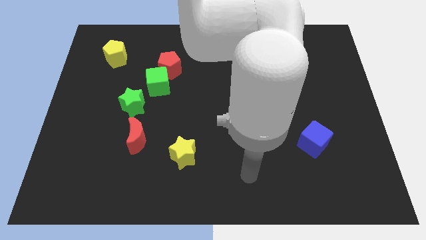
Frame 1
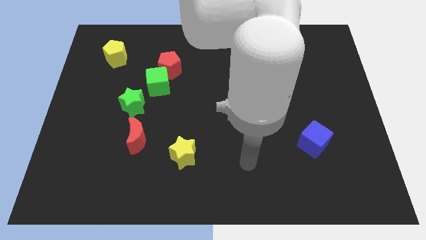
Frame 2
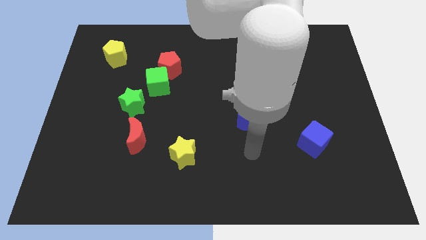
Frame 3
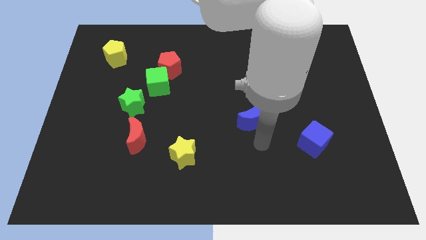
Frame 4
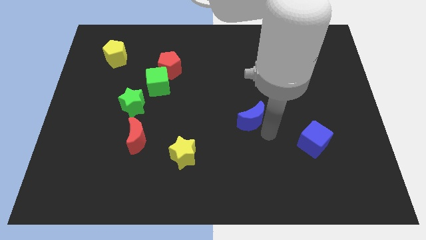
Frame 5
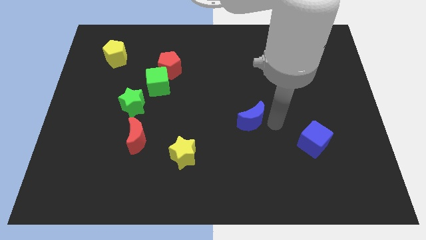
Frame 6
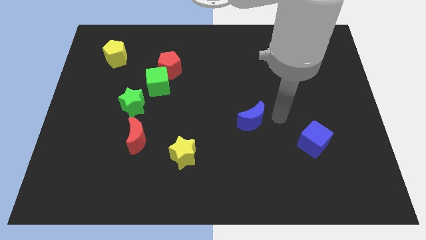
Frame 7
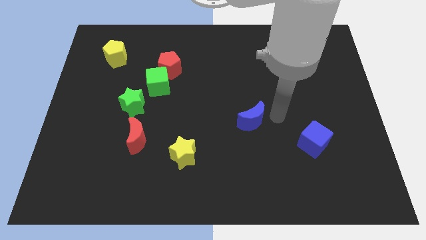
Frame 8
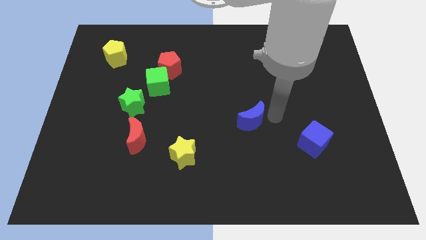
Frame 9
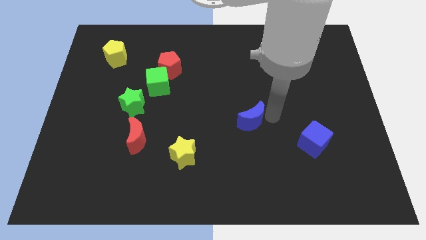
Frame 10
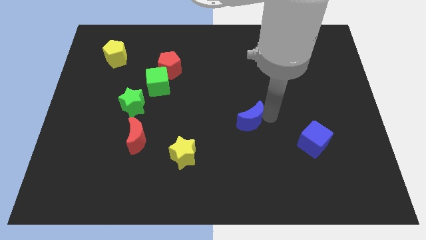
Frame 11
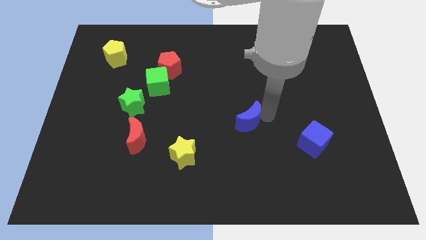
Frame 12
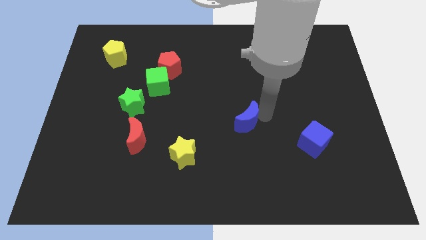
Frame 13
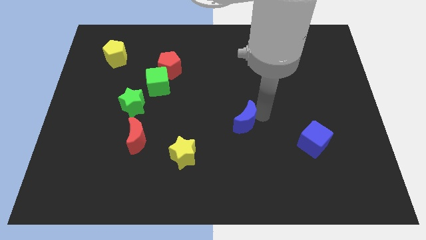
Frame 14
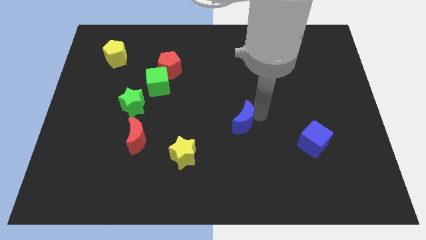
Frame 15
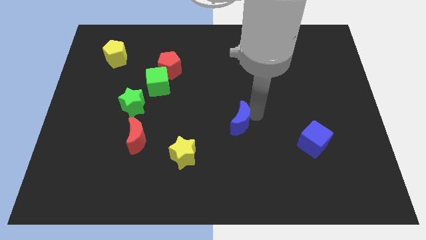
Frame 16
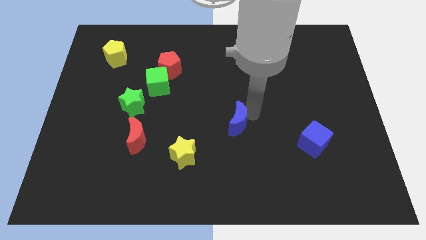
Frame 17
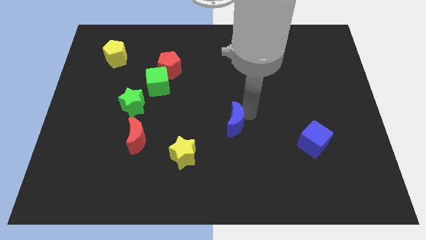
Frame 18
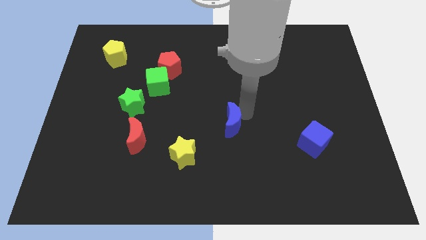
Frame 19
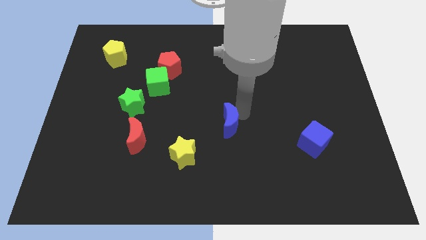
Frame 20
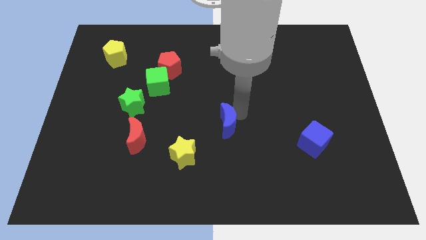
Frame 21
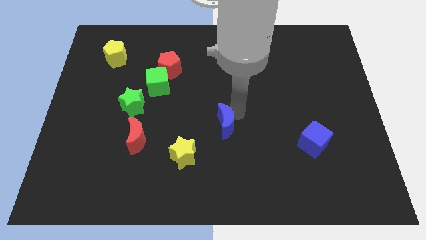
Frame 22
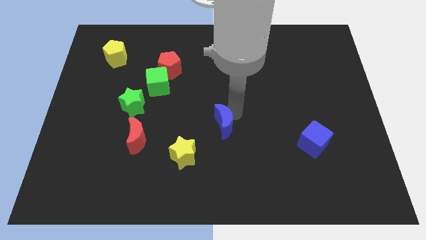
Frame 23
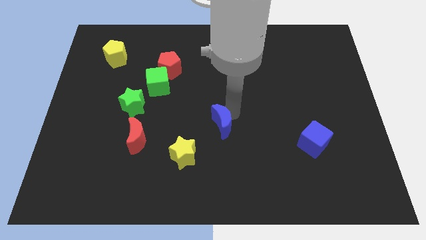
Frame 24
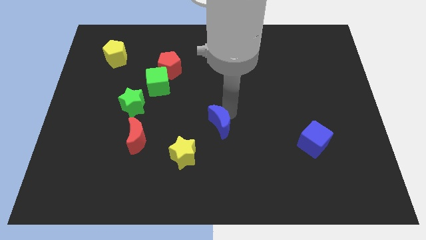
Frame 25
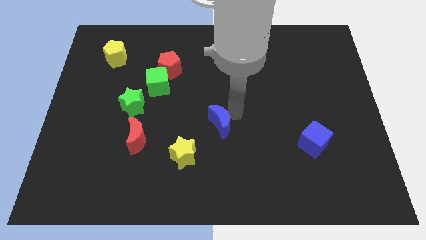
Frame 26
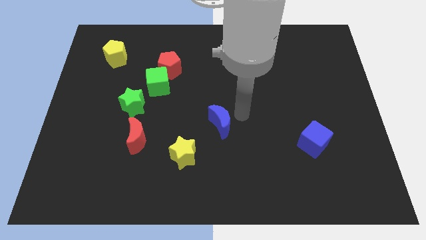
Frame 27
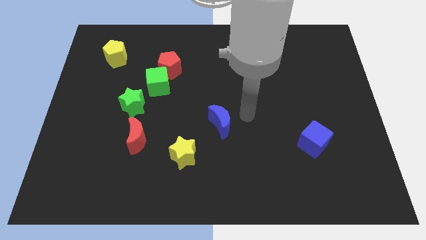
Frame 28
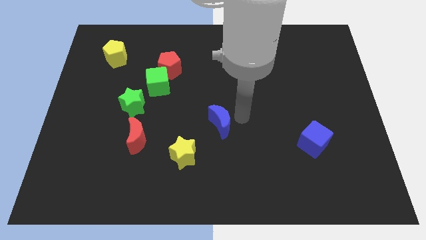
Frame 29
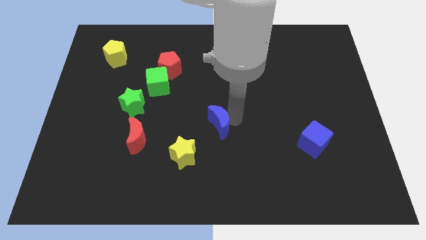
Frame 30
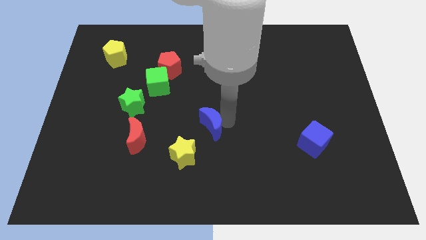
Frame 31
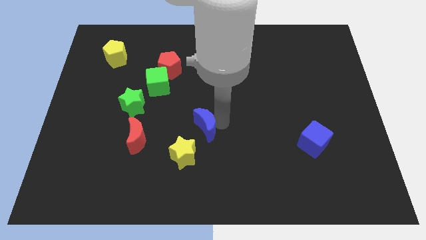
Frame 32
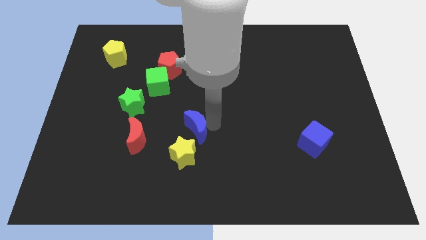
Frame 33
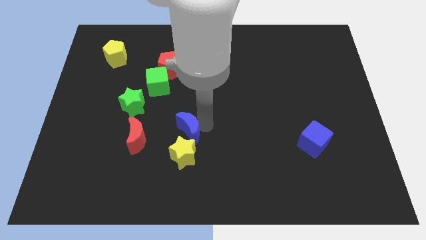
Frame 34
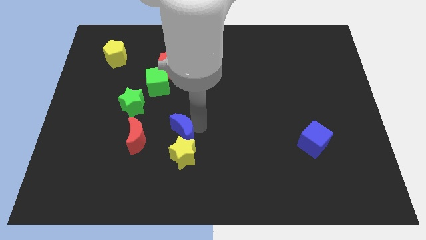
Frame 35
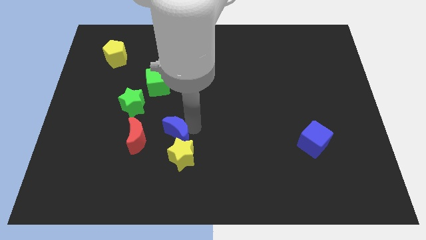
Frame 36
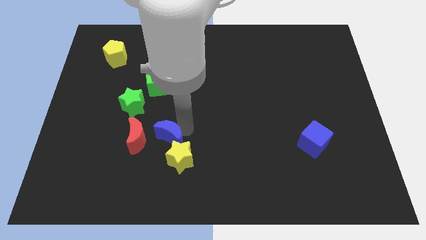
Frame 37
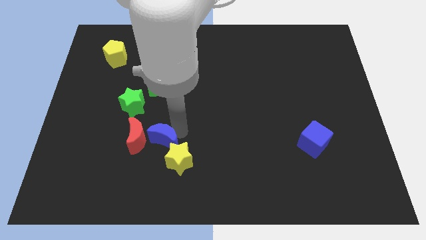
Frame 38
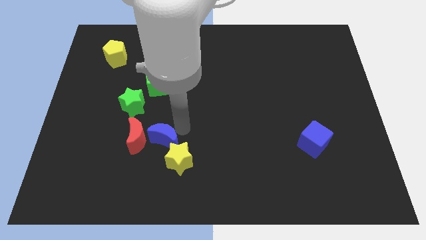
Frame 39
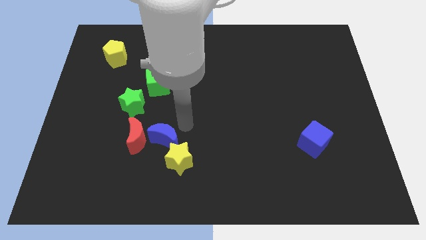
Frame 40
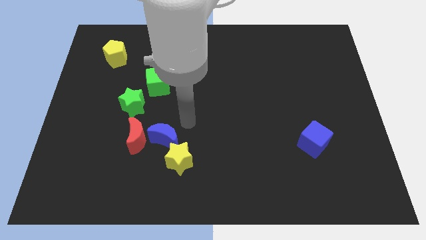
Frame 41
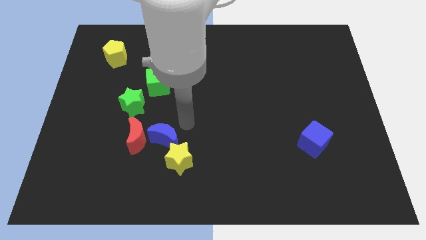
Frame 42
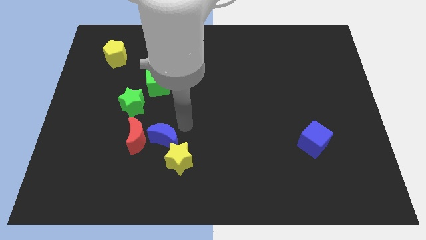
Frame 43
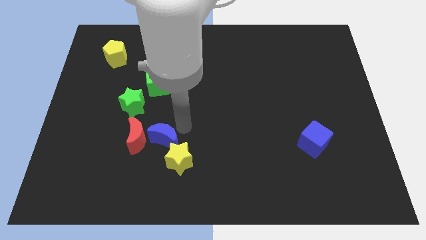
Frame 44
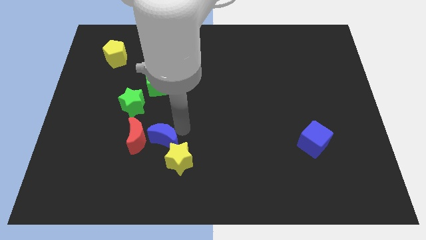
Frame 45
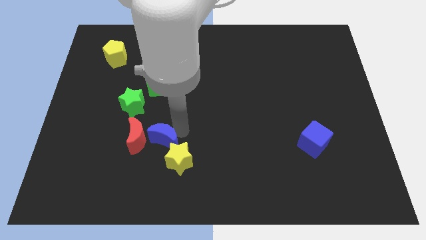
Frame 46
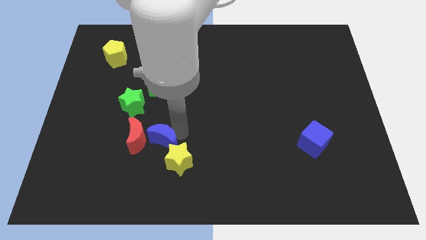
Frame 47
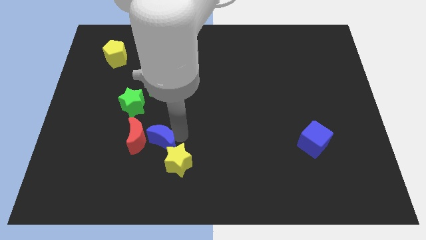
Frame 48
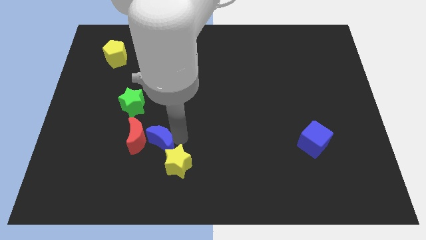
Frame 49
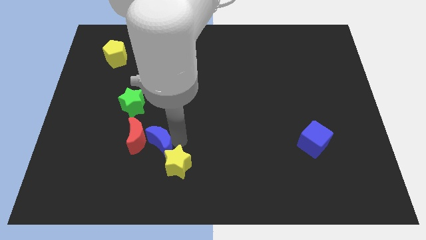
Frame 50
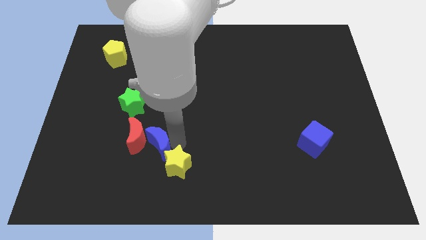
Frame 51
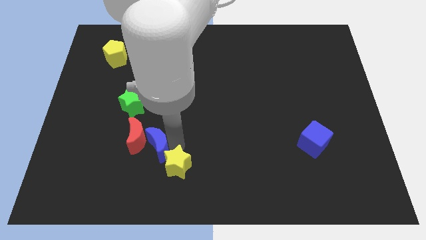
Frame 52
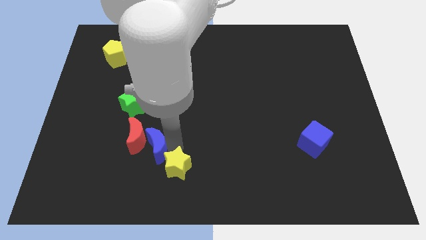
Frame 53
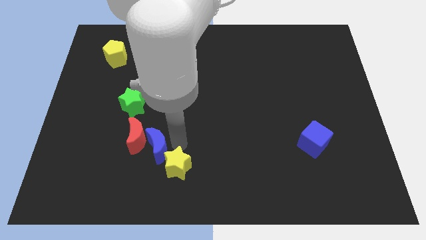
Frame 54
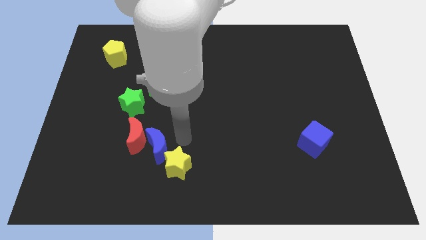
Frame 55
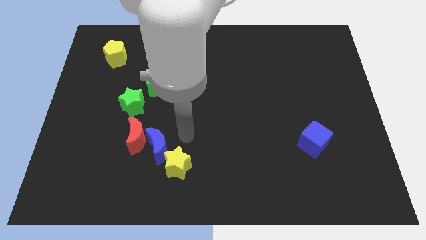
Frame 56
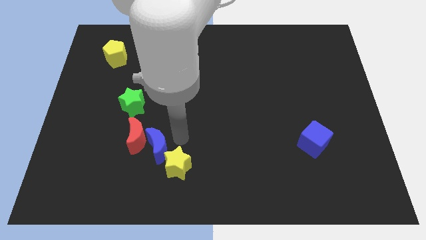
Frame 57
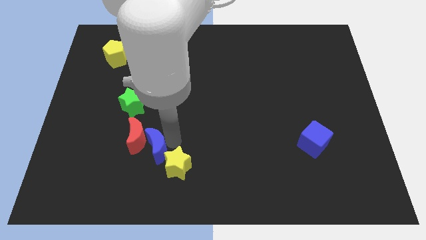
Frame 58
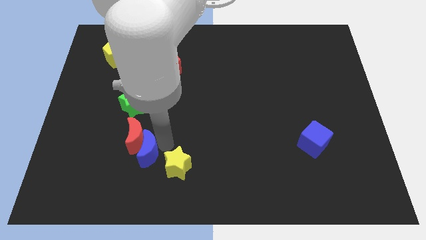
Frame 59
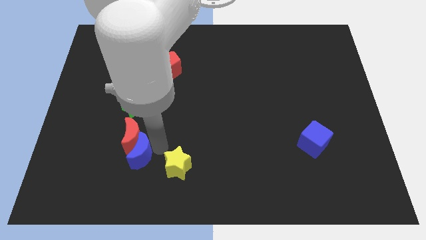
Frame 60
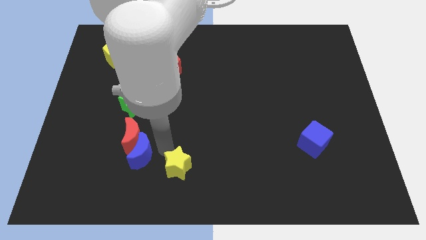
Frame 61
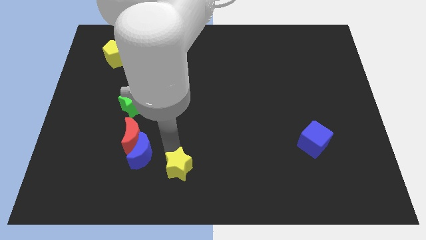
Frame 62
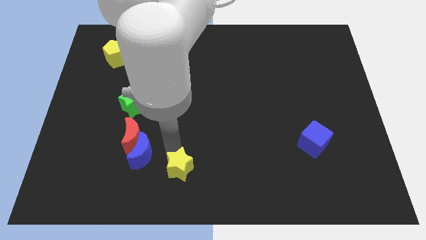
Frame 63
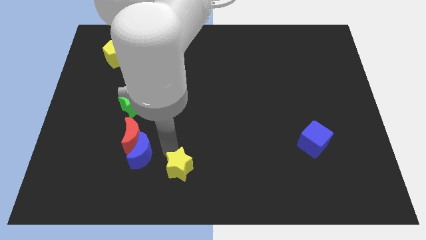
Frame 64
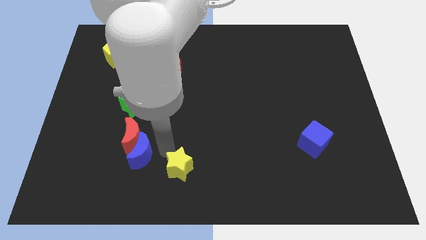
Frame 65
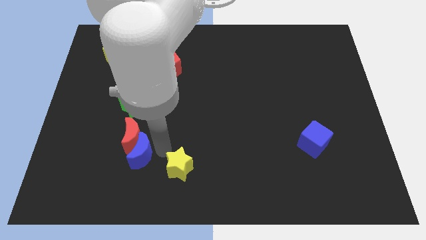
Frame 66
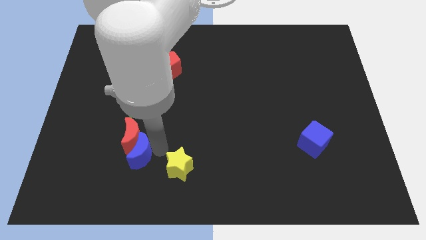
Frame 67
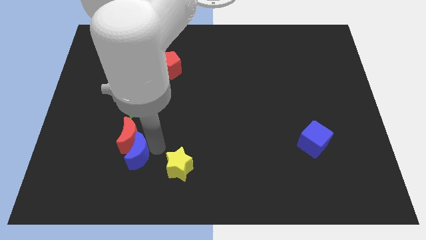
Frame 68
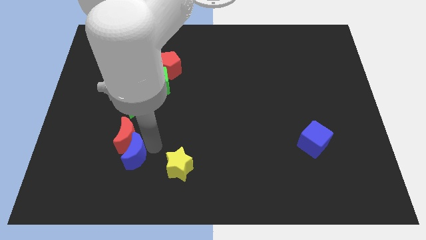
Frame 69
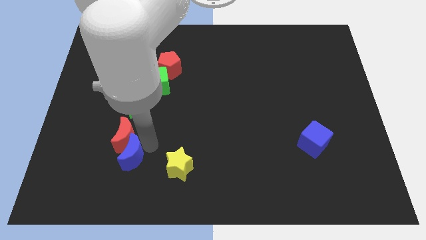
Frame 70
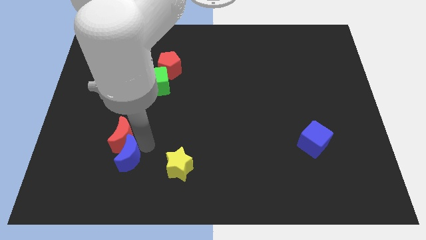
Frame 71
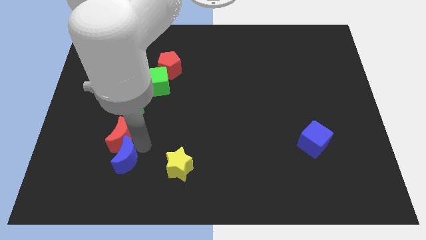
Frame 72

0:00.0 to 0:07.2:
put the blue moon to the bottom left of the red moon

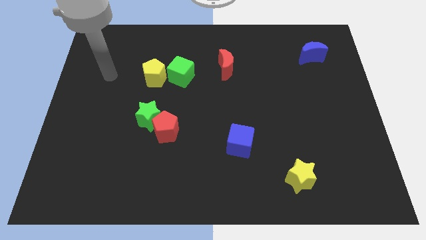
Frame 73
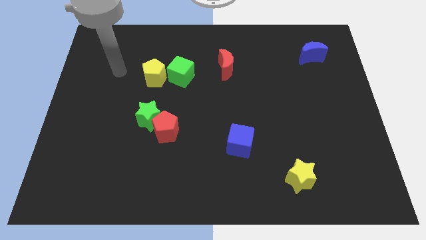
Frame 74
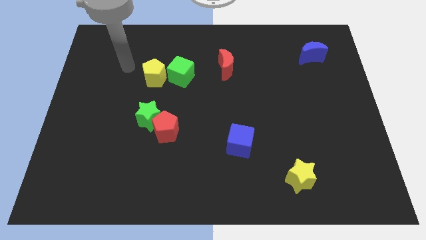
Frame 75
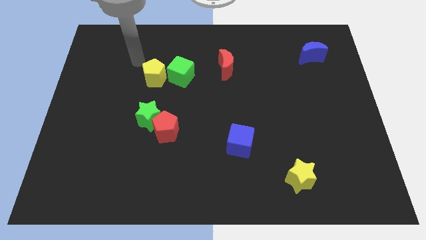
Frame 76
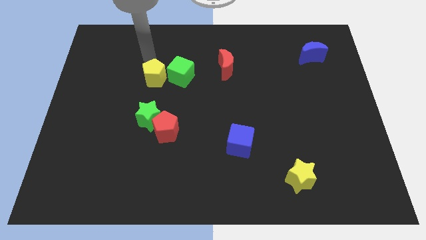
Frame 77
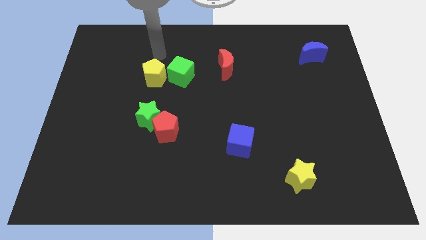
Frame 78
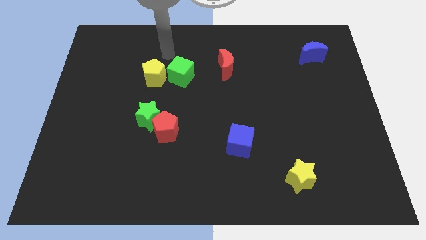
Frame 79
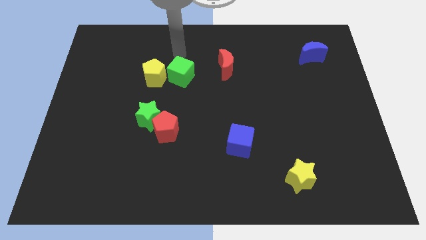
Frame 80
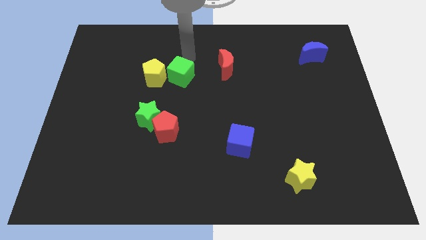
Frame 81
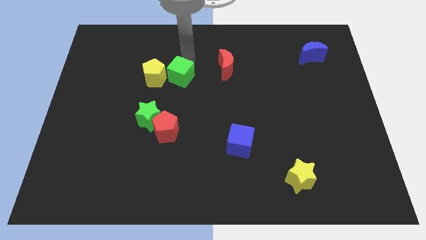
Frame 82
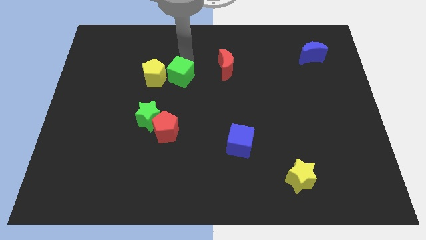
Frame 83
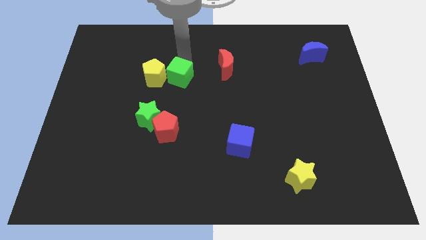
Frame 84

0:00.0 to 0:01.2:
push the green cube diagonally down and to the right of the yellow pentagon
